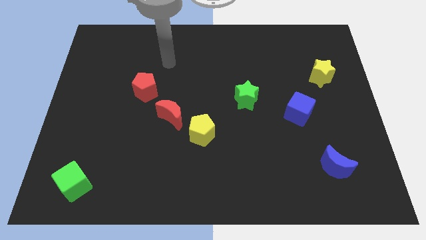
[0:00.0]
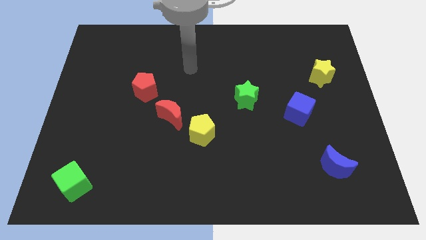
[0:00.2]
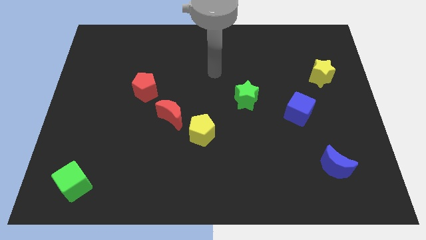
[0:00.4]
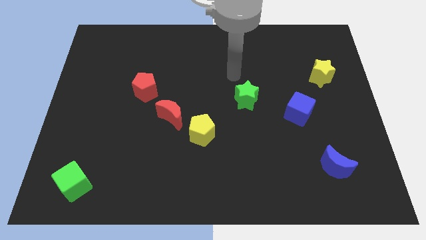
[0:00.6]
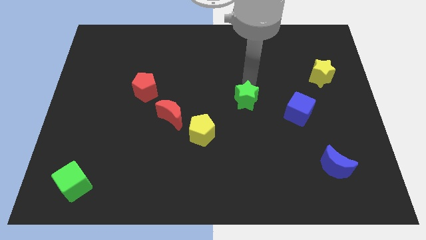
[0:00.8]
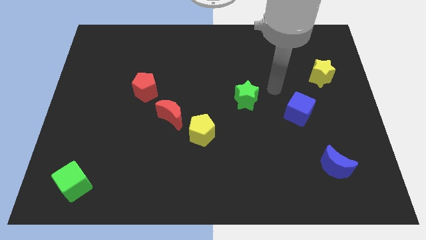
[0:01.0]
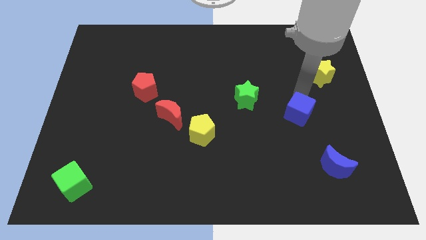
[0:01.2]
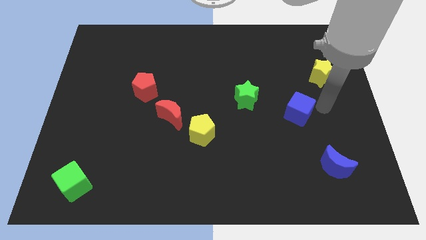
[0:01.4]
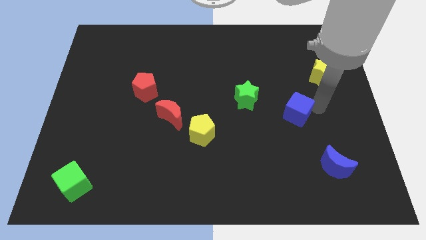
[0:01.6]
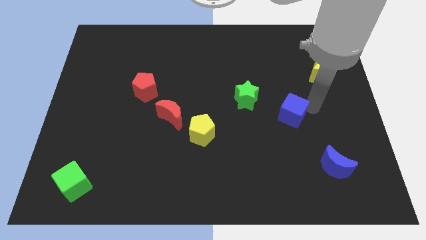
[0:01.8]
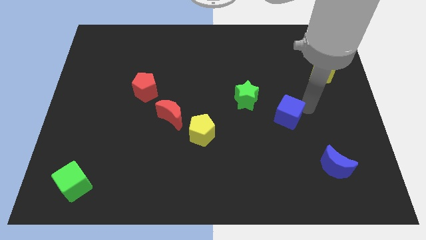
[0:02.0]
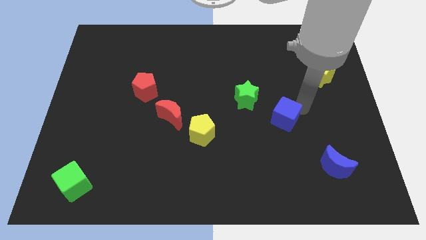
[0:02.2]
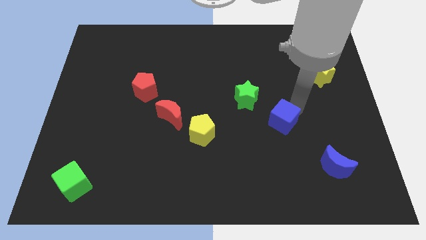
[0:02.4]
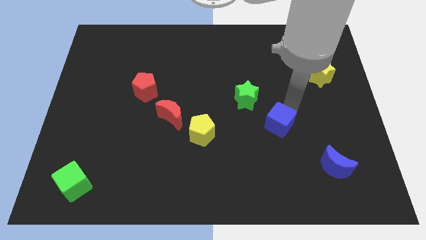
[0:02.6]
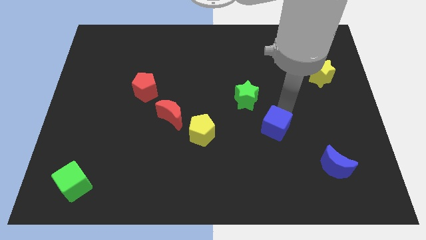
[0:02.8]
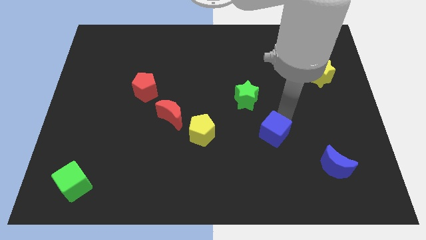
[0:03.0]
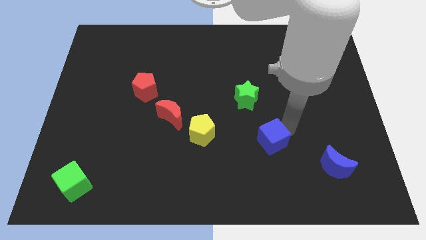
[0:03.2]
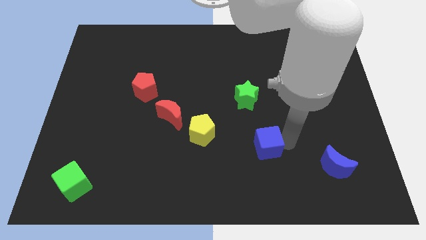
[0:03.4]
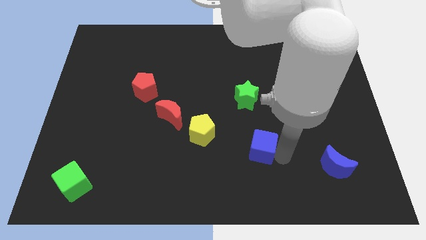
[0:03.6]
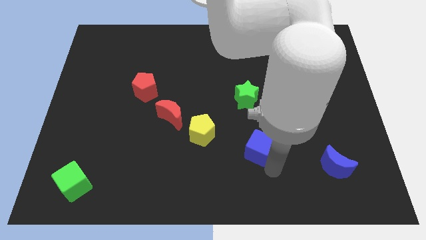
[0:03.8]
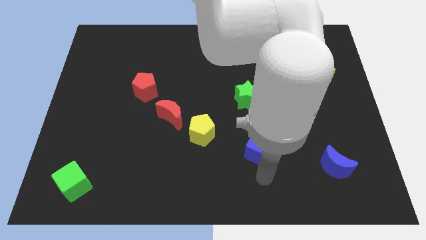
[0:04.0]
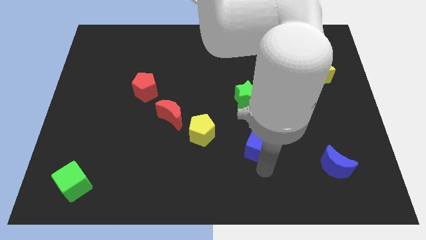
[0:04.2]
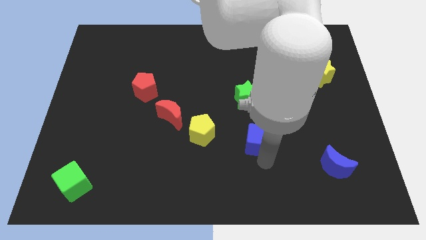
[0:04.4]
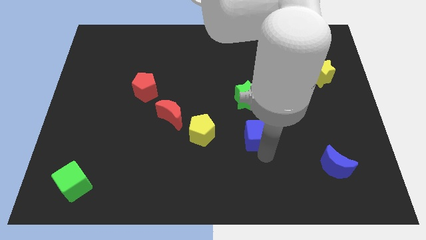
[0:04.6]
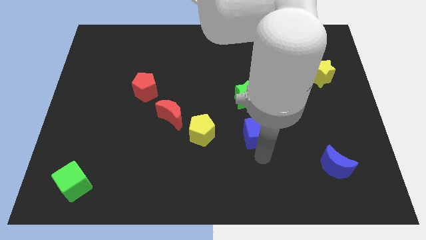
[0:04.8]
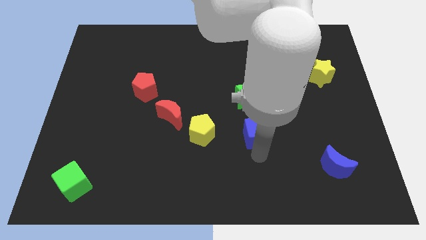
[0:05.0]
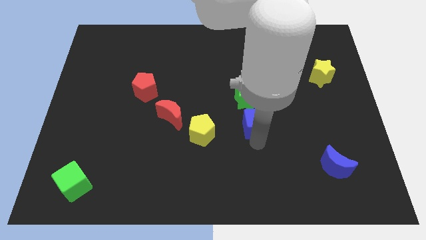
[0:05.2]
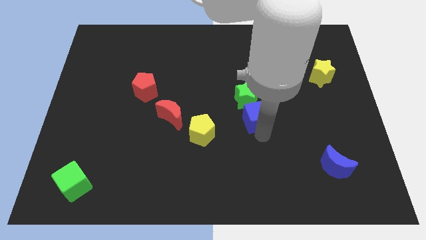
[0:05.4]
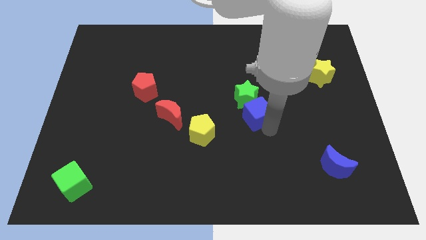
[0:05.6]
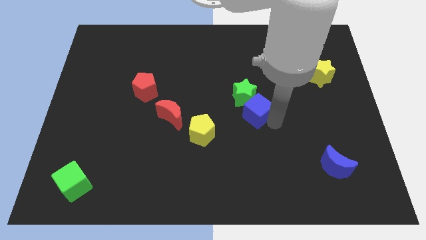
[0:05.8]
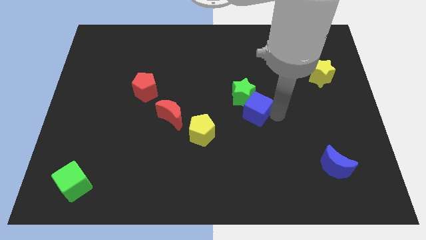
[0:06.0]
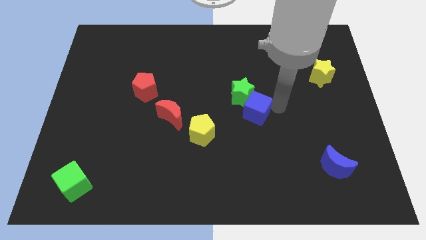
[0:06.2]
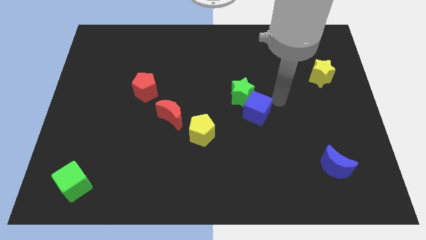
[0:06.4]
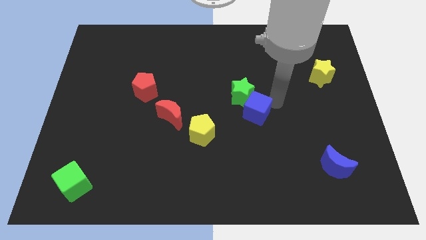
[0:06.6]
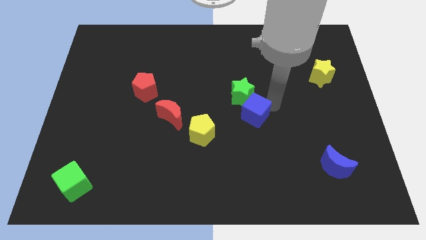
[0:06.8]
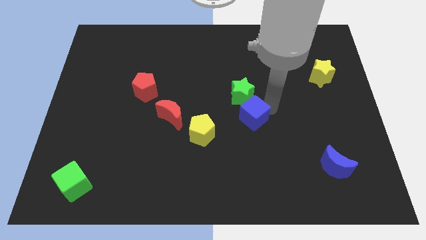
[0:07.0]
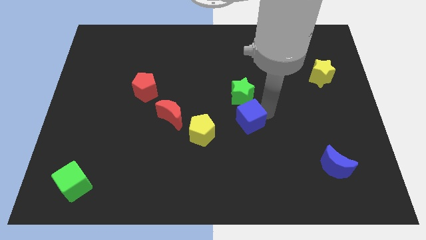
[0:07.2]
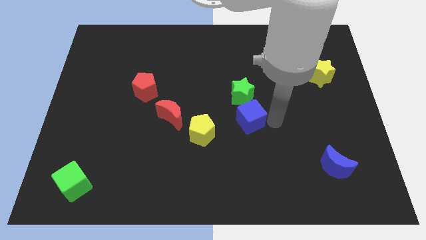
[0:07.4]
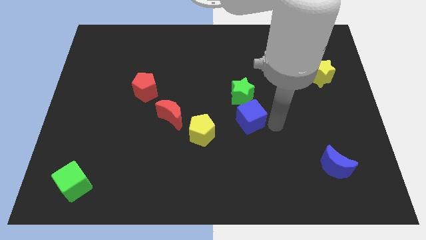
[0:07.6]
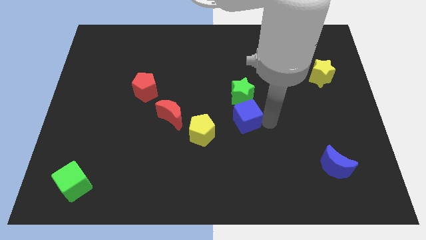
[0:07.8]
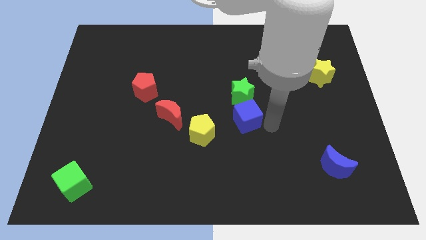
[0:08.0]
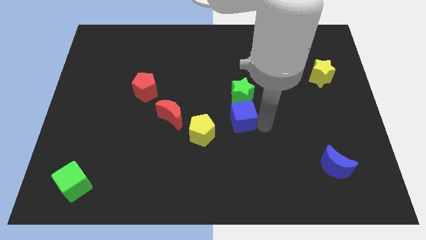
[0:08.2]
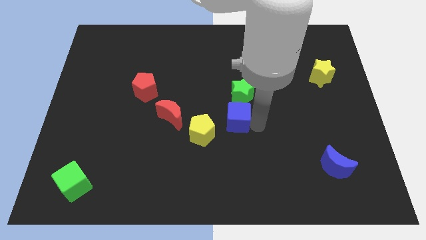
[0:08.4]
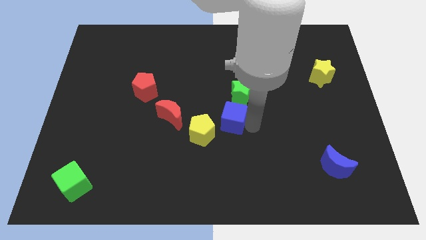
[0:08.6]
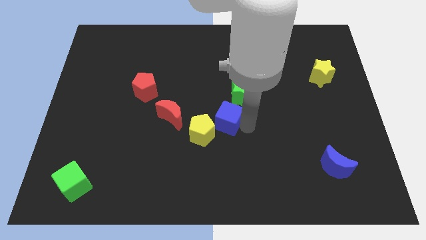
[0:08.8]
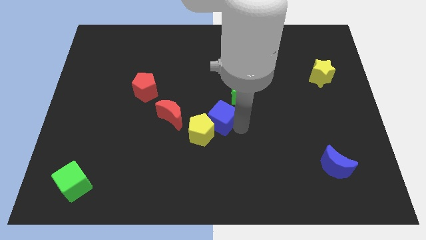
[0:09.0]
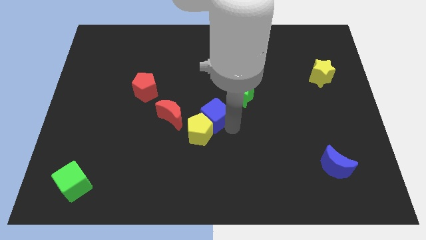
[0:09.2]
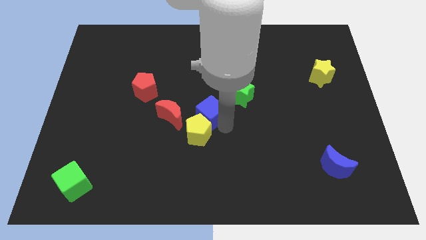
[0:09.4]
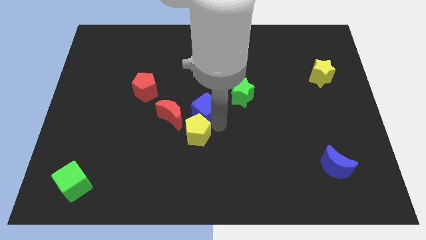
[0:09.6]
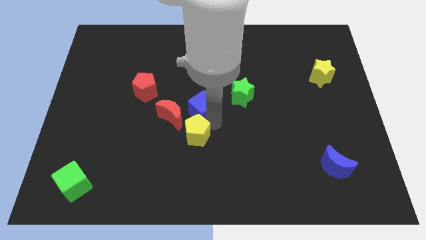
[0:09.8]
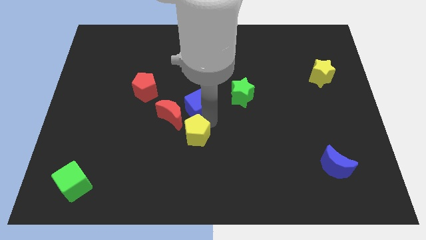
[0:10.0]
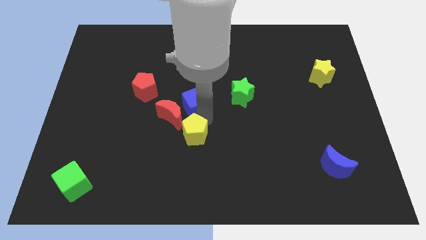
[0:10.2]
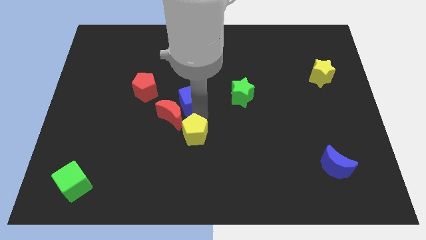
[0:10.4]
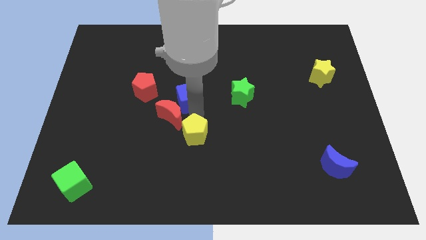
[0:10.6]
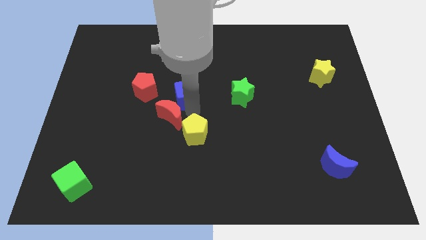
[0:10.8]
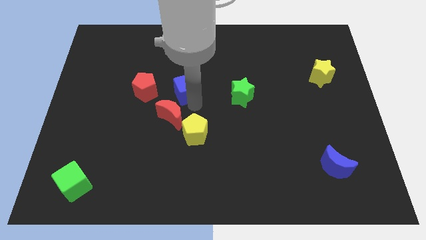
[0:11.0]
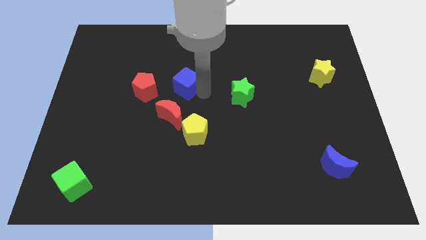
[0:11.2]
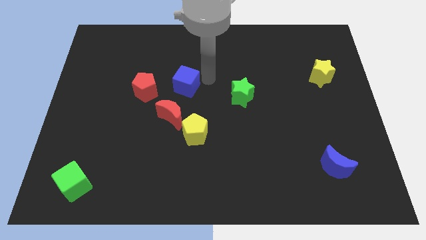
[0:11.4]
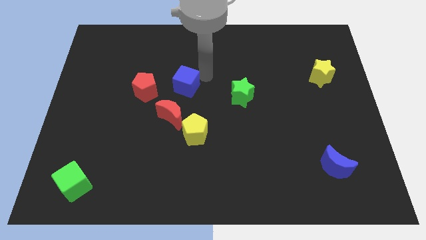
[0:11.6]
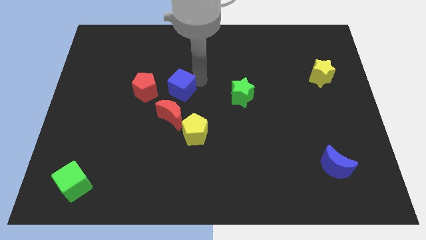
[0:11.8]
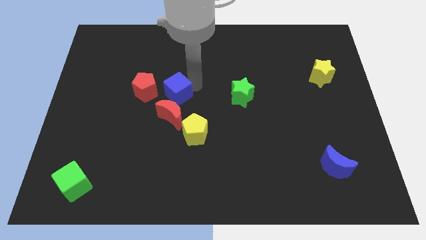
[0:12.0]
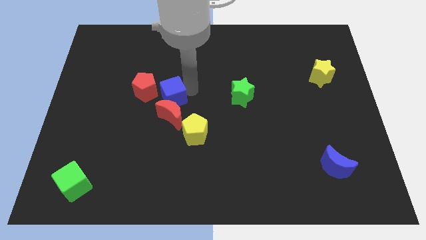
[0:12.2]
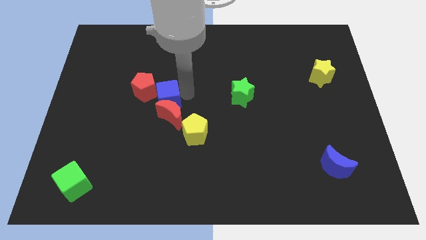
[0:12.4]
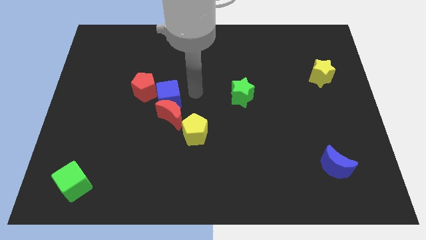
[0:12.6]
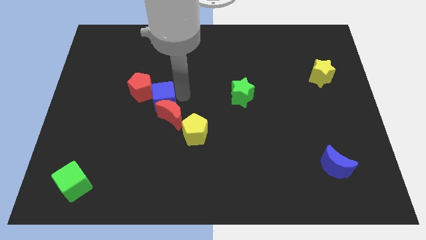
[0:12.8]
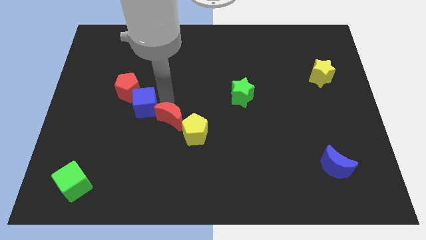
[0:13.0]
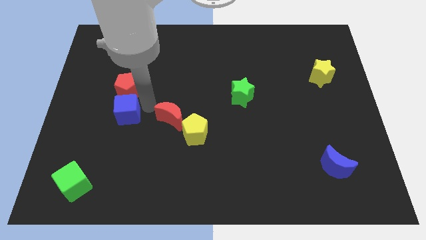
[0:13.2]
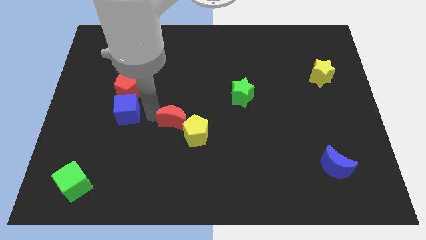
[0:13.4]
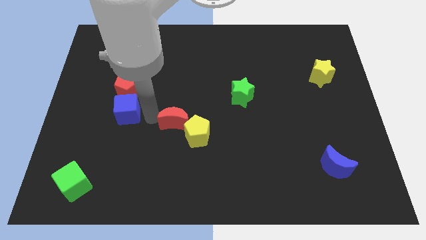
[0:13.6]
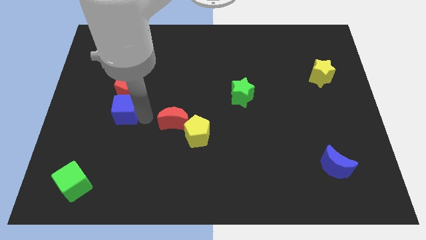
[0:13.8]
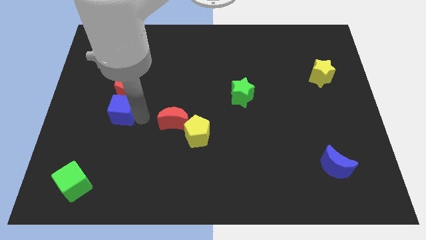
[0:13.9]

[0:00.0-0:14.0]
move the blue cube to the bottom left of the red pentagon
